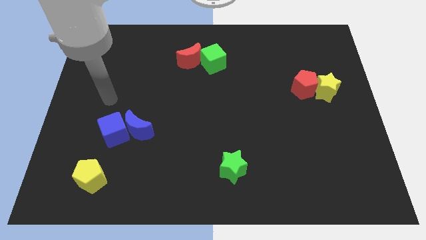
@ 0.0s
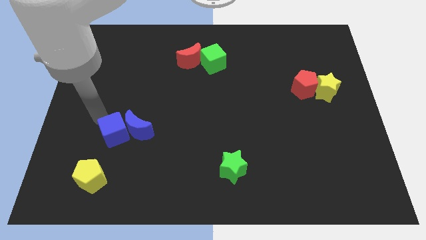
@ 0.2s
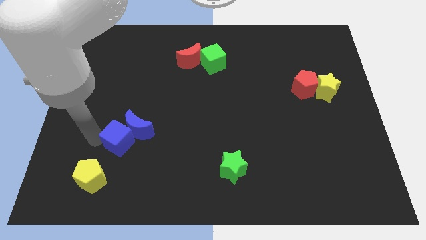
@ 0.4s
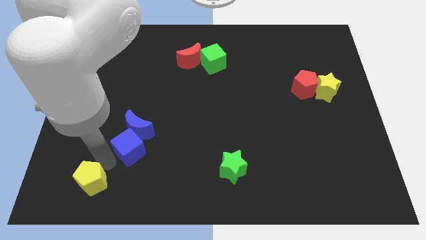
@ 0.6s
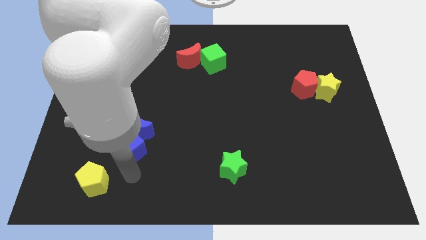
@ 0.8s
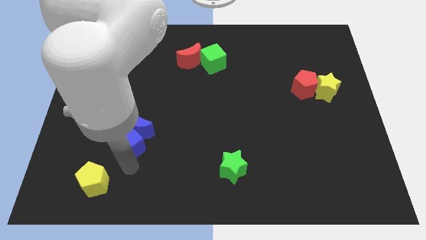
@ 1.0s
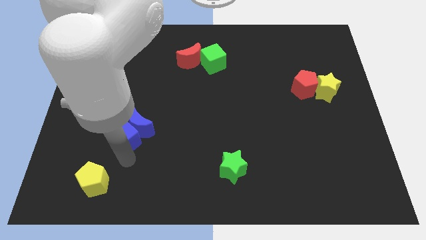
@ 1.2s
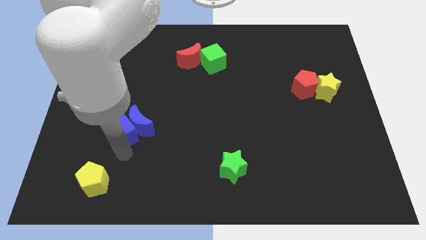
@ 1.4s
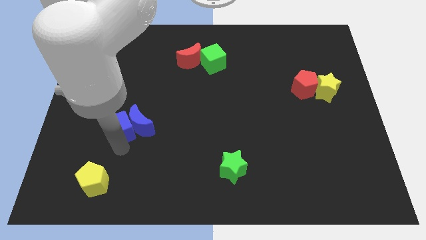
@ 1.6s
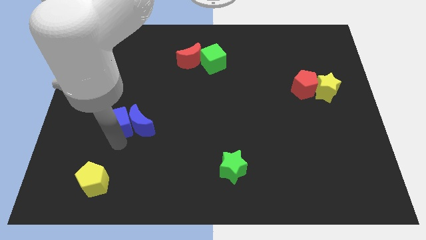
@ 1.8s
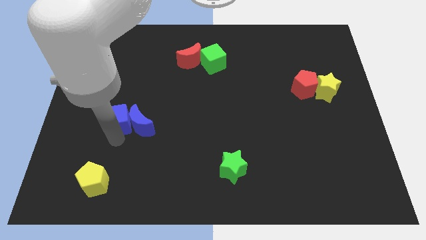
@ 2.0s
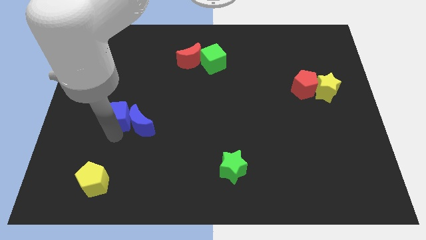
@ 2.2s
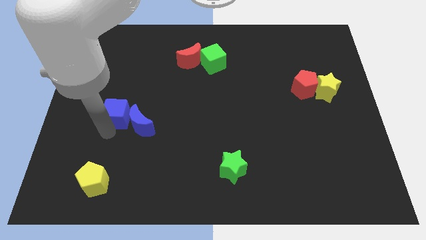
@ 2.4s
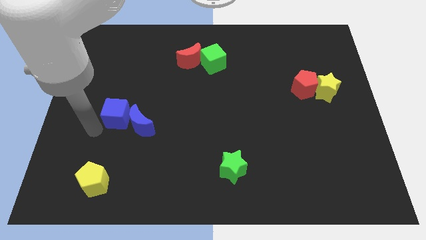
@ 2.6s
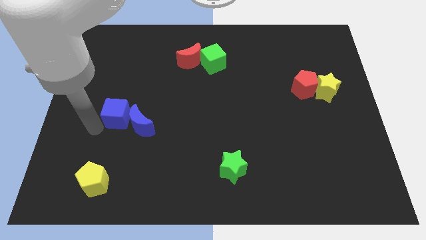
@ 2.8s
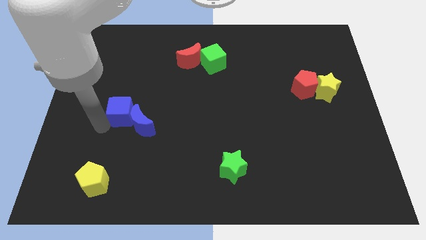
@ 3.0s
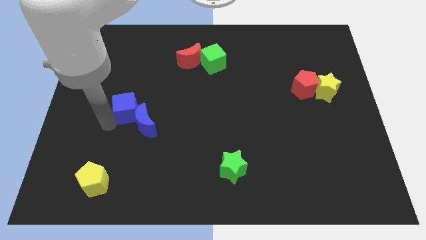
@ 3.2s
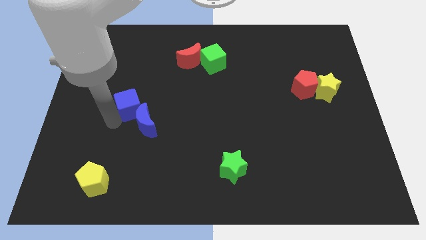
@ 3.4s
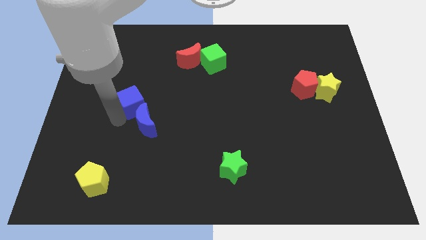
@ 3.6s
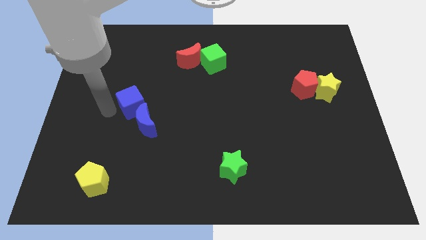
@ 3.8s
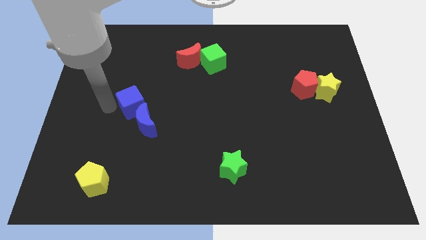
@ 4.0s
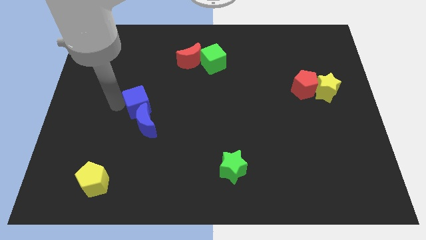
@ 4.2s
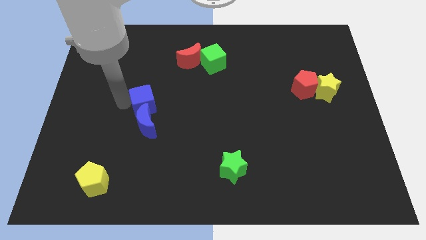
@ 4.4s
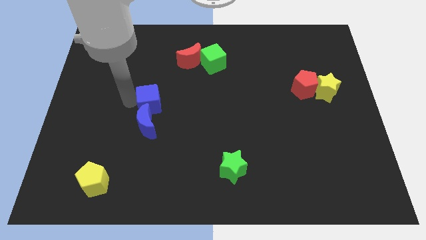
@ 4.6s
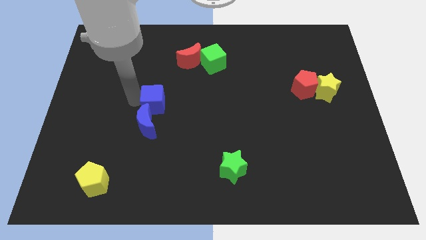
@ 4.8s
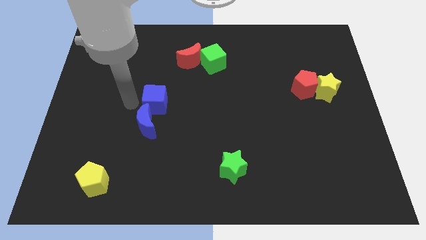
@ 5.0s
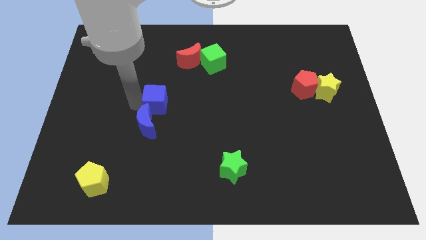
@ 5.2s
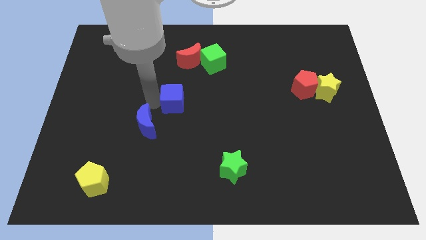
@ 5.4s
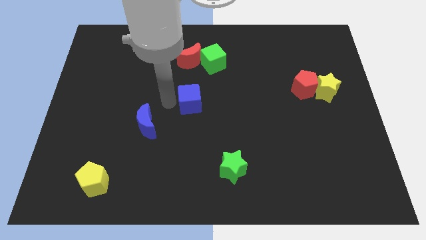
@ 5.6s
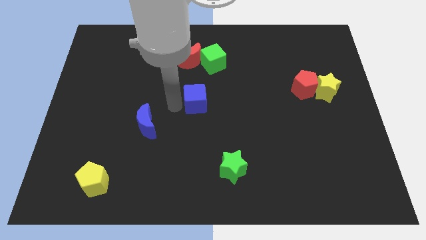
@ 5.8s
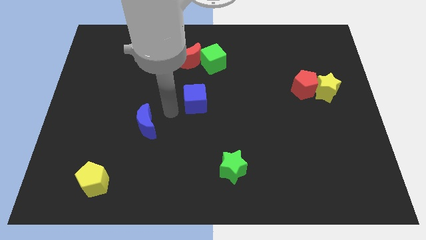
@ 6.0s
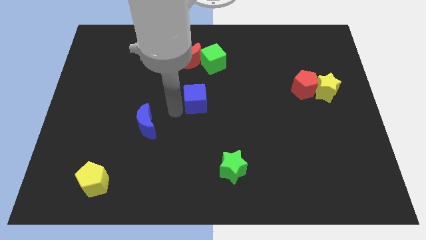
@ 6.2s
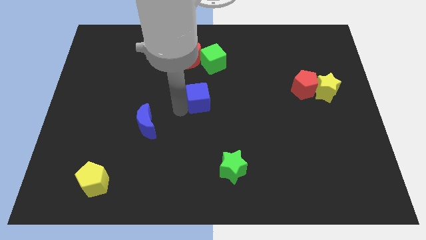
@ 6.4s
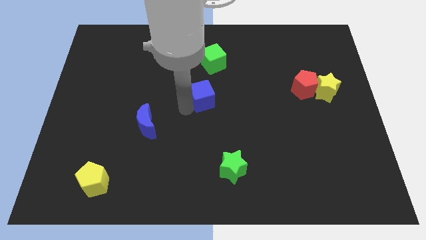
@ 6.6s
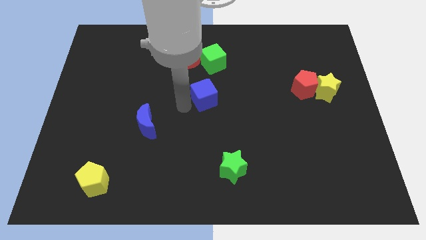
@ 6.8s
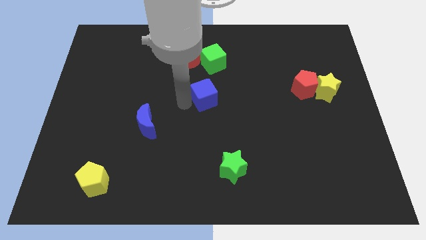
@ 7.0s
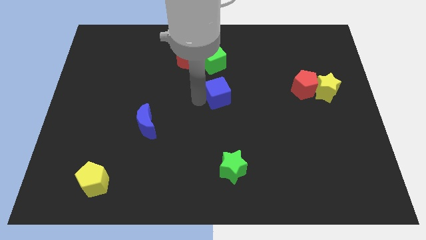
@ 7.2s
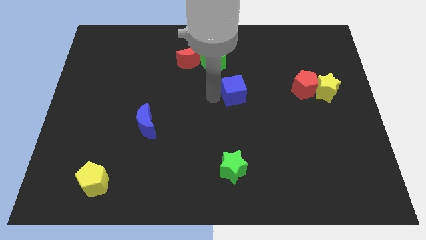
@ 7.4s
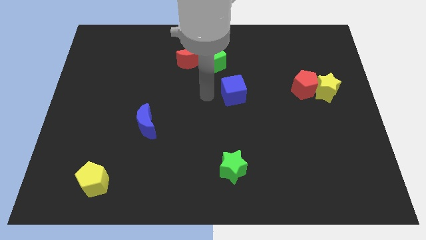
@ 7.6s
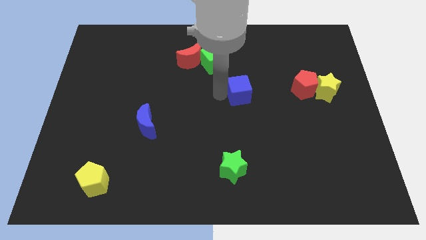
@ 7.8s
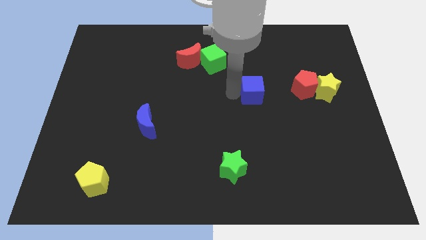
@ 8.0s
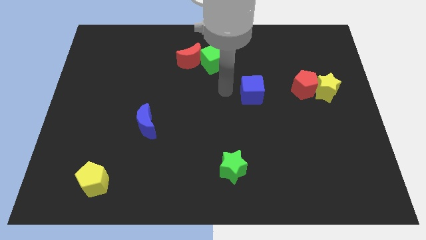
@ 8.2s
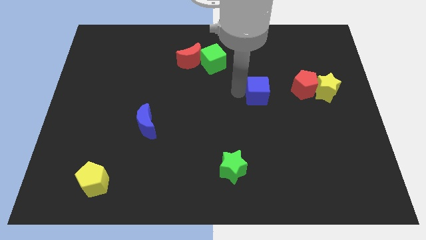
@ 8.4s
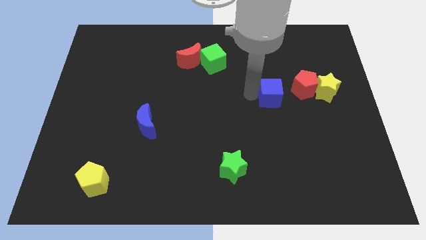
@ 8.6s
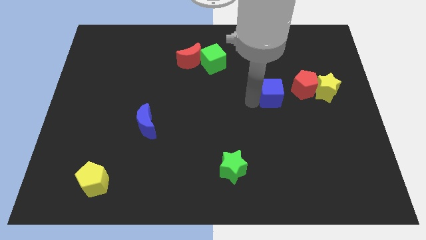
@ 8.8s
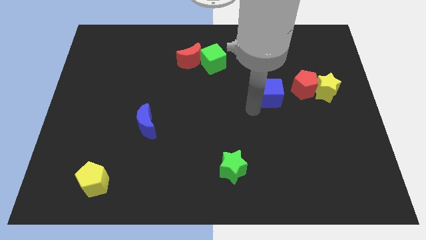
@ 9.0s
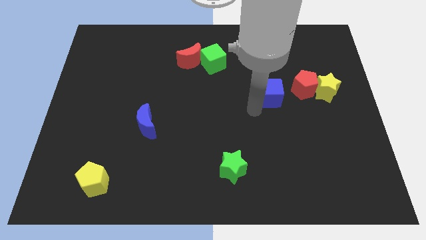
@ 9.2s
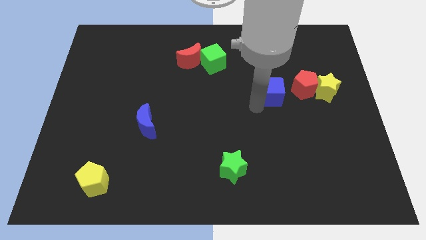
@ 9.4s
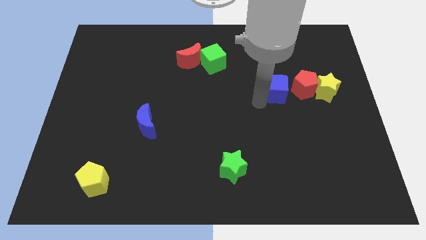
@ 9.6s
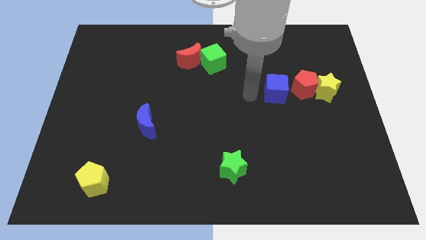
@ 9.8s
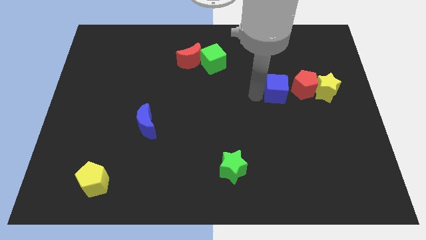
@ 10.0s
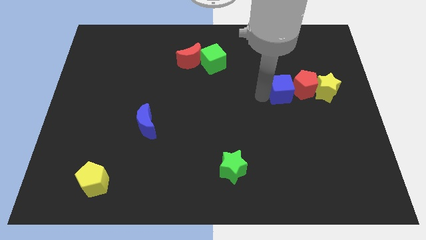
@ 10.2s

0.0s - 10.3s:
push the blue cube next to the red pentagon

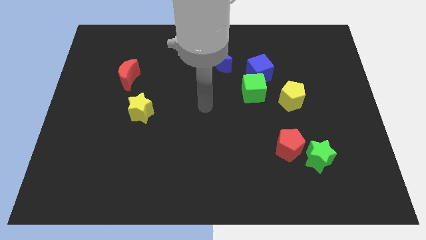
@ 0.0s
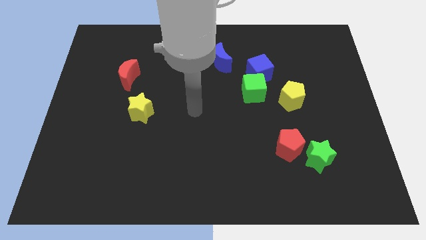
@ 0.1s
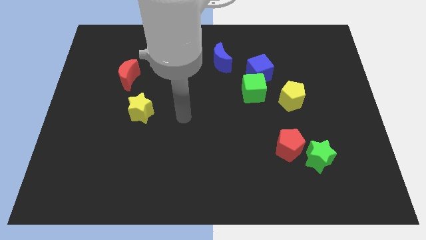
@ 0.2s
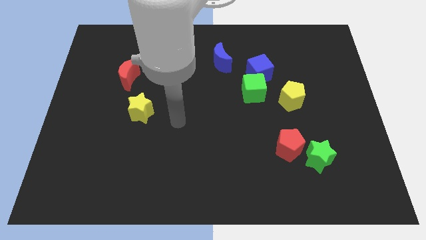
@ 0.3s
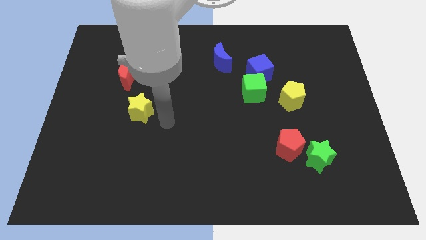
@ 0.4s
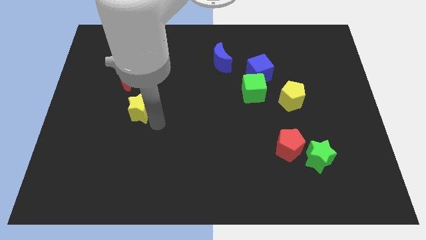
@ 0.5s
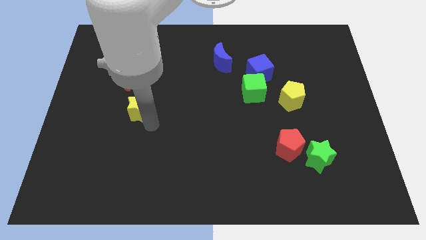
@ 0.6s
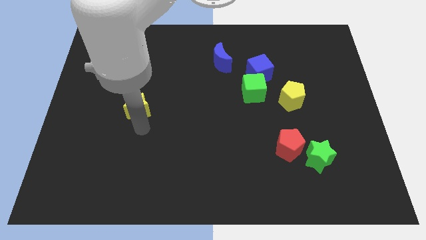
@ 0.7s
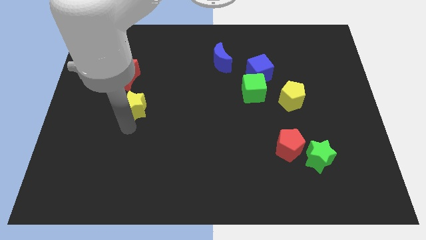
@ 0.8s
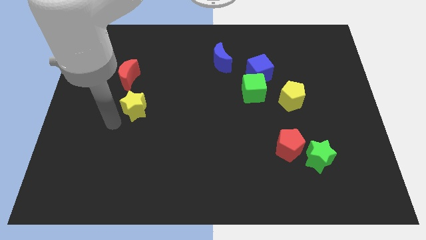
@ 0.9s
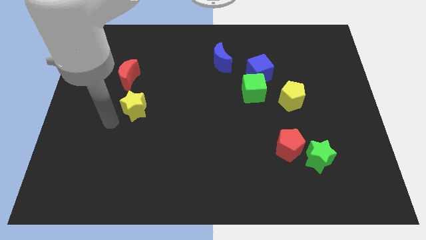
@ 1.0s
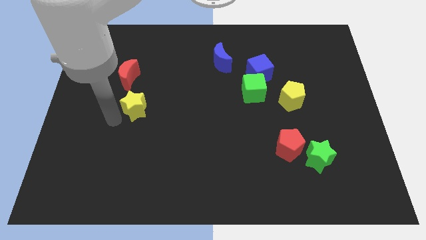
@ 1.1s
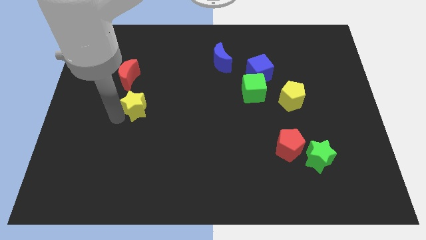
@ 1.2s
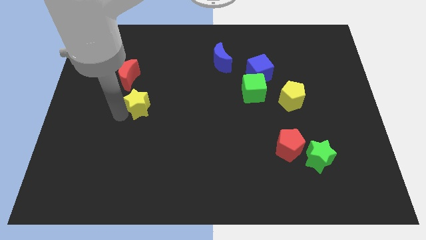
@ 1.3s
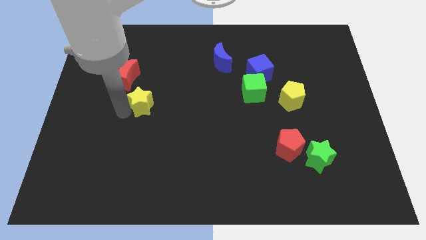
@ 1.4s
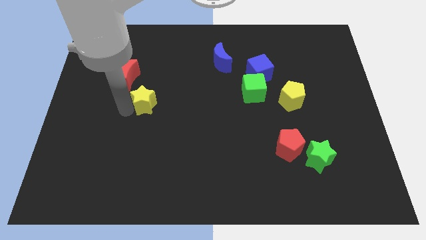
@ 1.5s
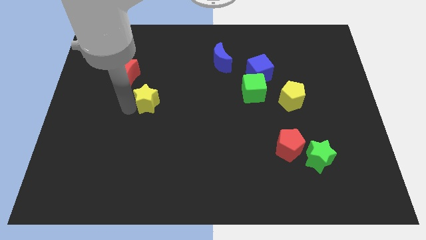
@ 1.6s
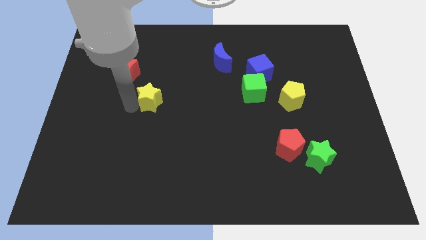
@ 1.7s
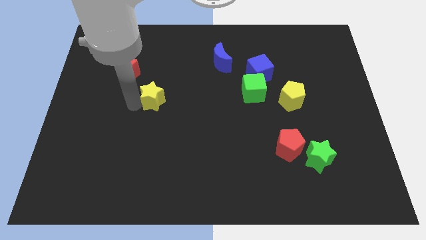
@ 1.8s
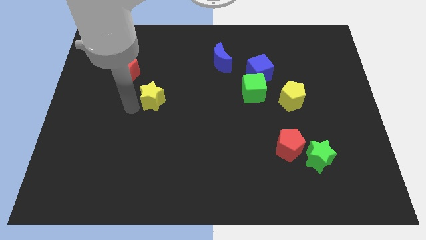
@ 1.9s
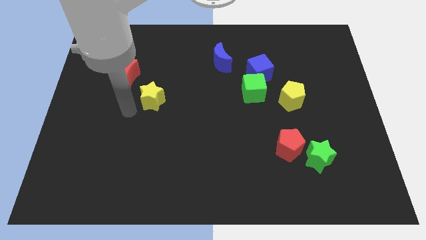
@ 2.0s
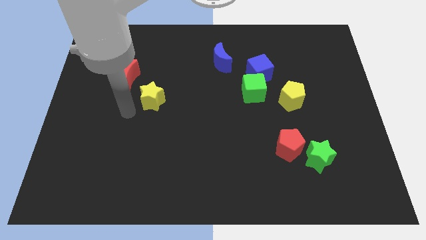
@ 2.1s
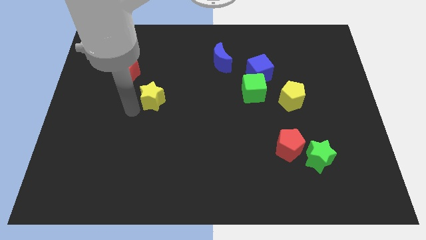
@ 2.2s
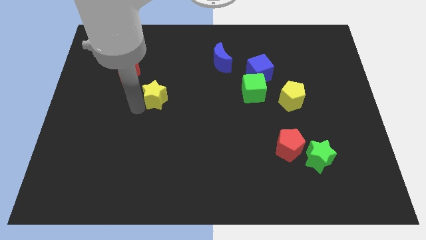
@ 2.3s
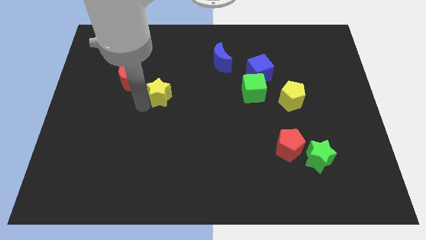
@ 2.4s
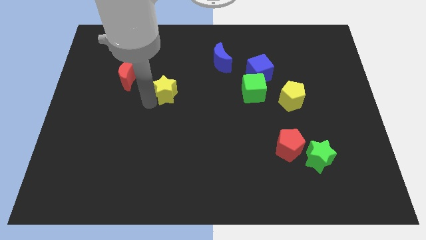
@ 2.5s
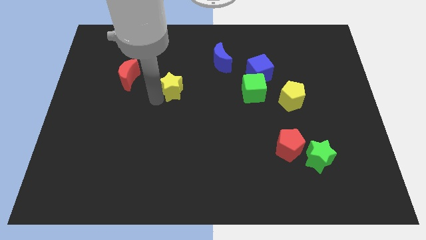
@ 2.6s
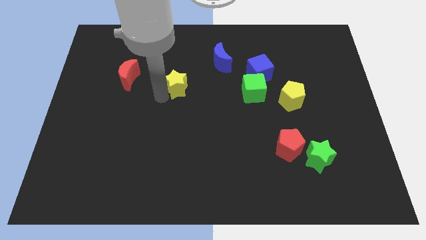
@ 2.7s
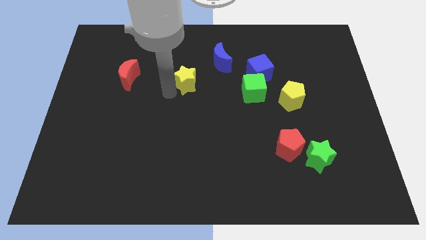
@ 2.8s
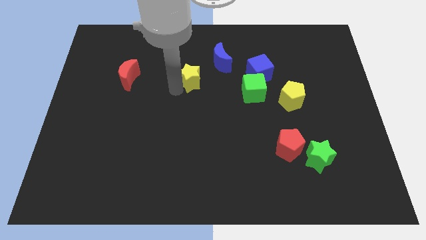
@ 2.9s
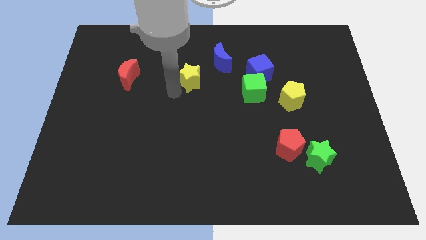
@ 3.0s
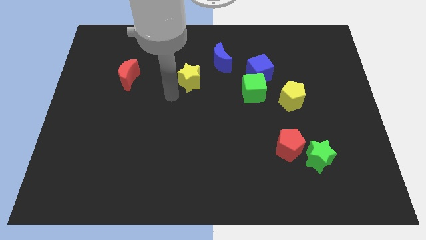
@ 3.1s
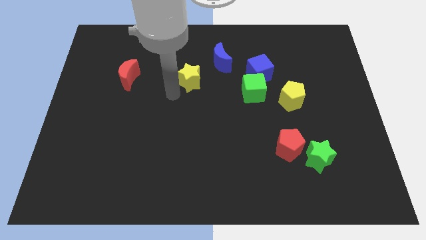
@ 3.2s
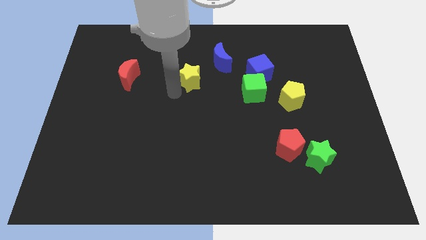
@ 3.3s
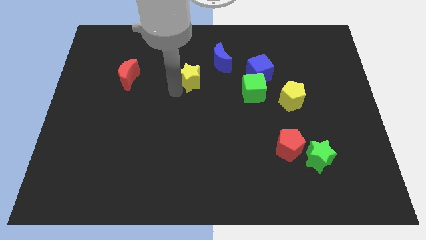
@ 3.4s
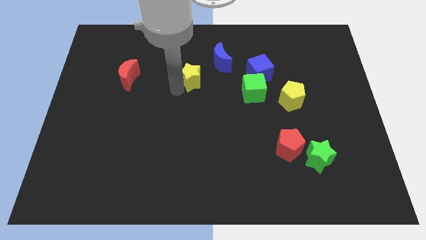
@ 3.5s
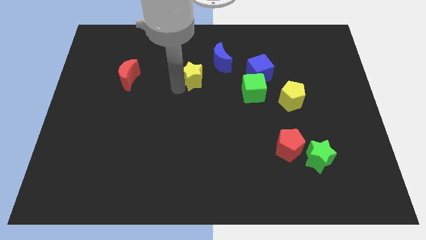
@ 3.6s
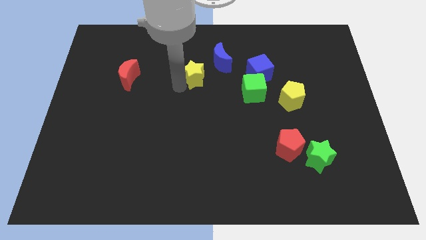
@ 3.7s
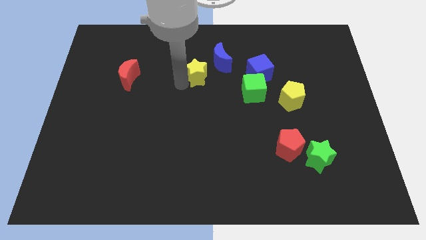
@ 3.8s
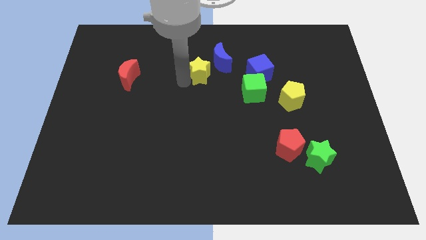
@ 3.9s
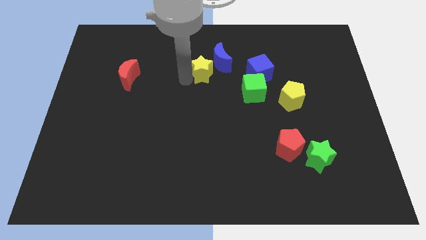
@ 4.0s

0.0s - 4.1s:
move the yellow star to the blue moon
